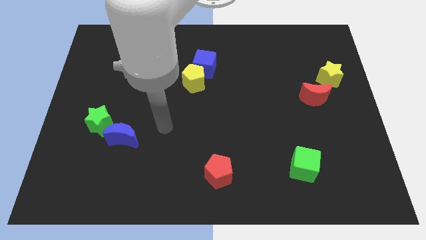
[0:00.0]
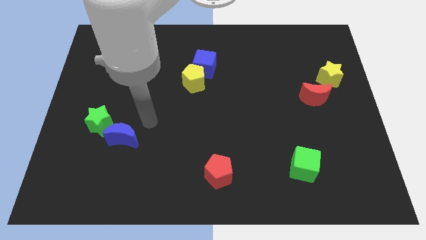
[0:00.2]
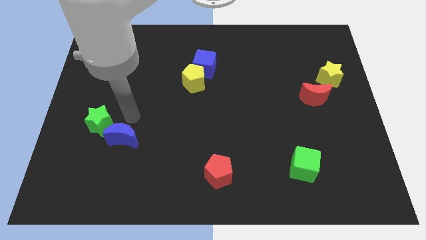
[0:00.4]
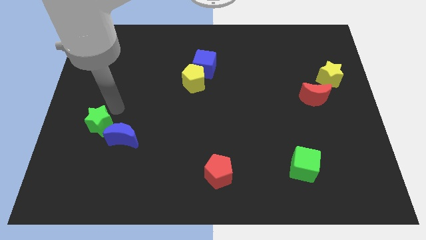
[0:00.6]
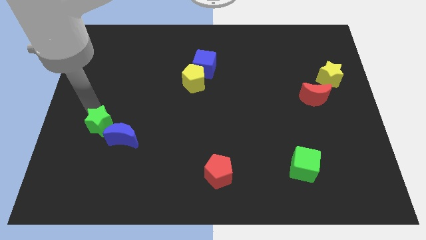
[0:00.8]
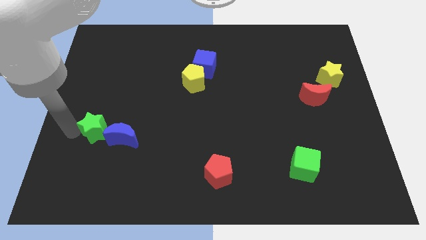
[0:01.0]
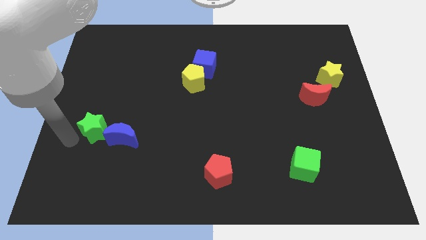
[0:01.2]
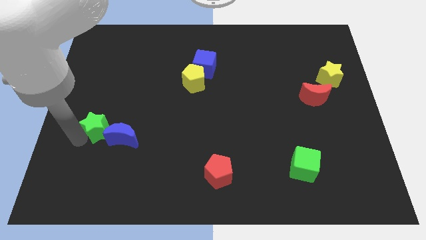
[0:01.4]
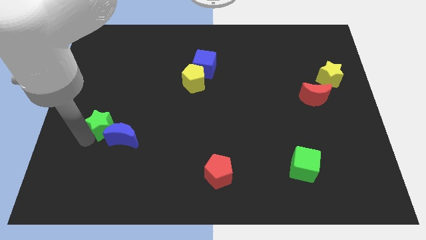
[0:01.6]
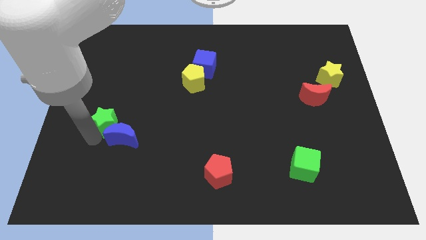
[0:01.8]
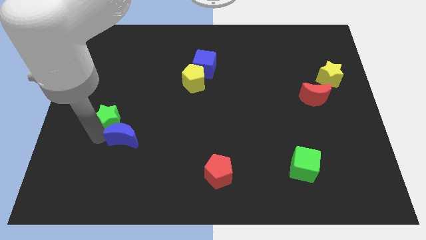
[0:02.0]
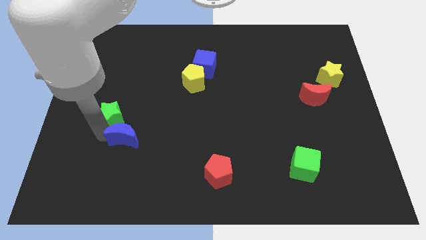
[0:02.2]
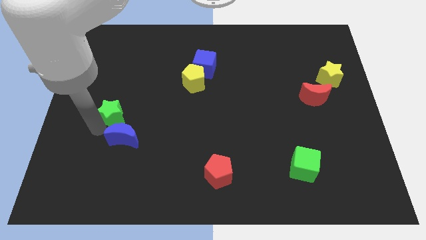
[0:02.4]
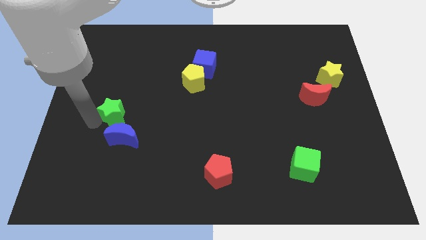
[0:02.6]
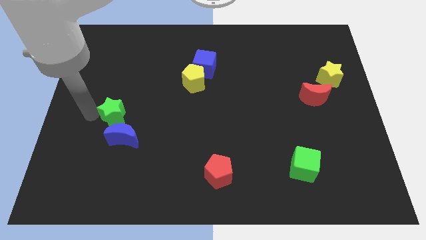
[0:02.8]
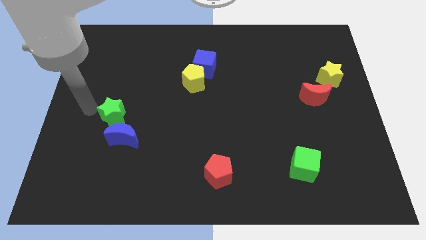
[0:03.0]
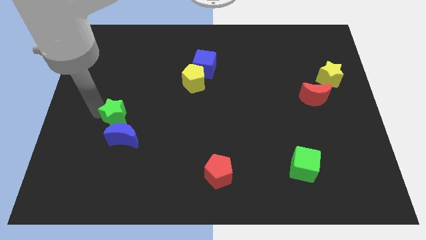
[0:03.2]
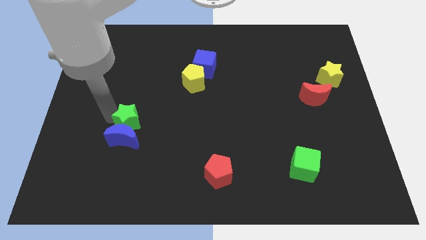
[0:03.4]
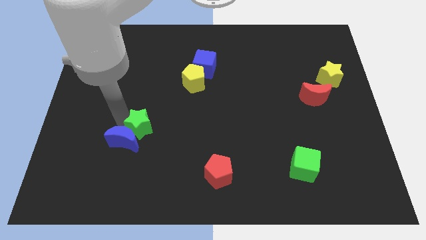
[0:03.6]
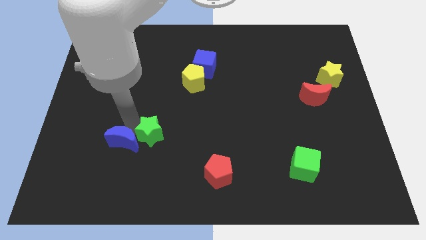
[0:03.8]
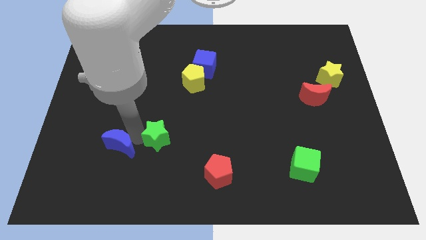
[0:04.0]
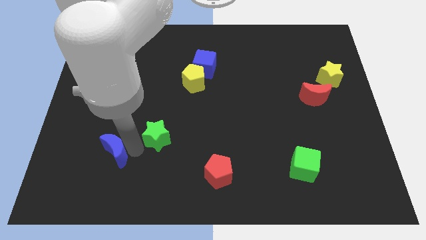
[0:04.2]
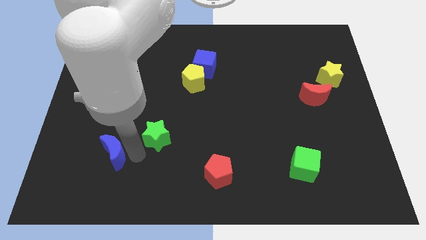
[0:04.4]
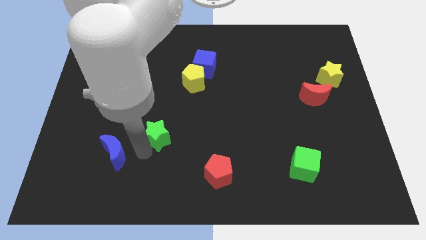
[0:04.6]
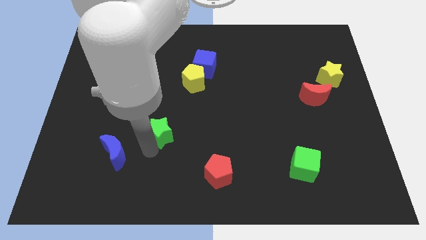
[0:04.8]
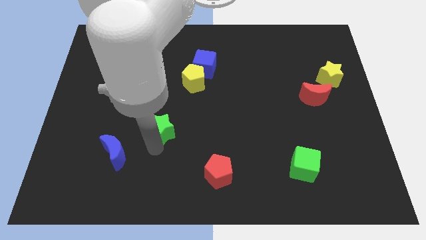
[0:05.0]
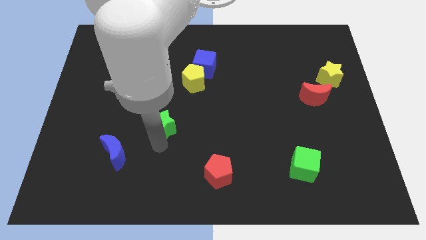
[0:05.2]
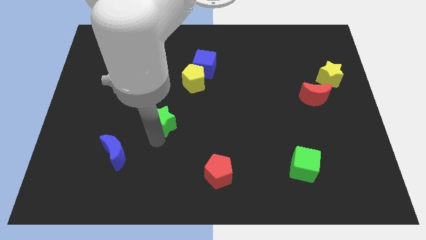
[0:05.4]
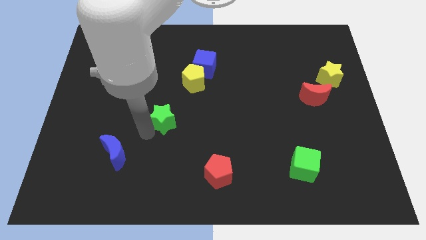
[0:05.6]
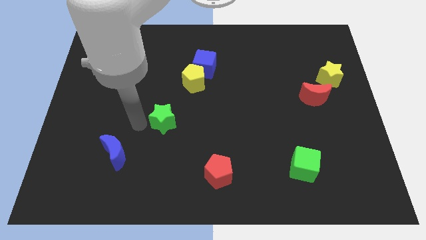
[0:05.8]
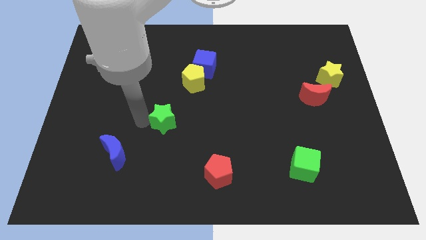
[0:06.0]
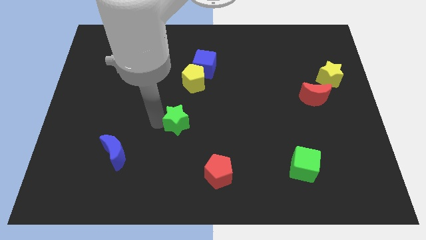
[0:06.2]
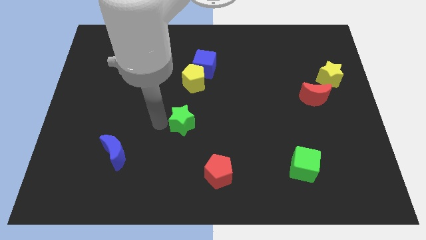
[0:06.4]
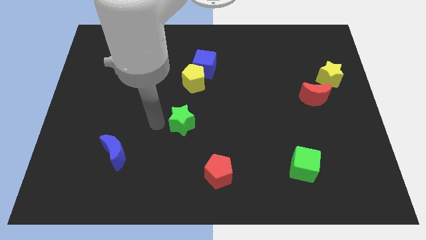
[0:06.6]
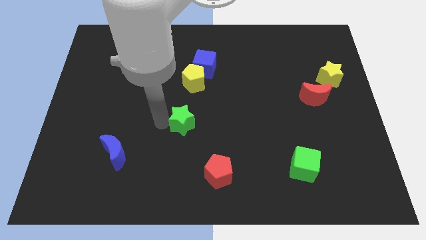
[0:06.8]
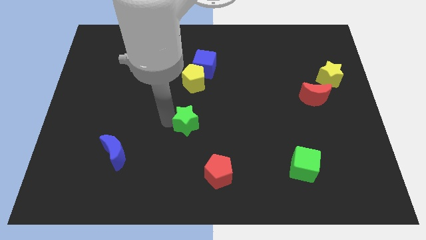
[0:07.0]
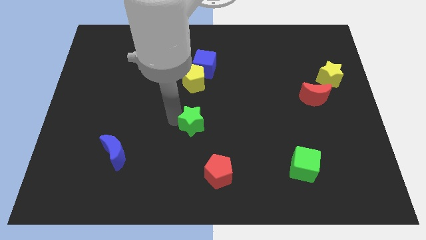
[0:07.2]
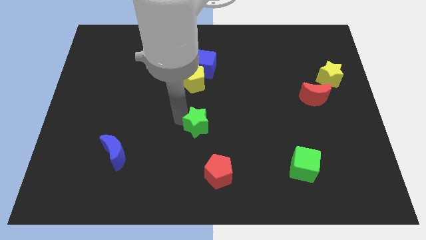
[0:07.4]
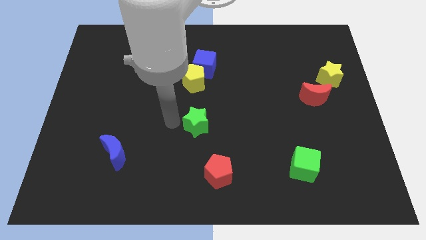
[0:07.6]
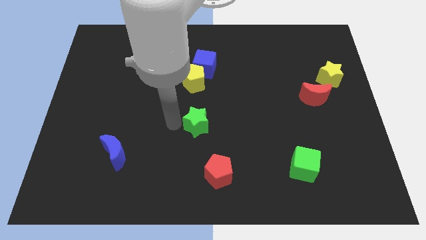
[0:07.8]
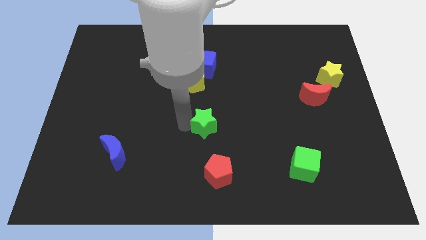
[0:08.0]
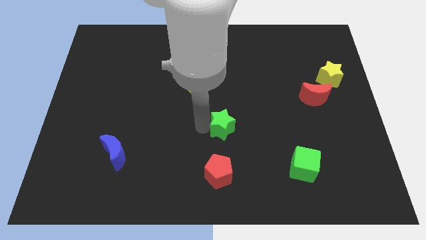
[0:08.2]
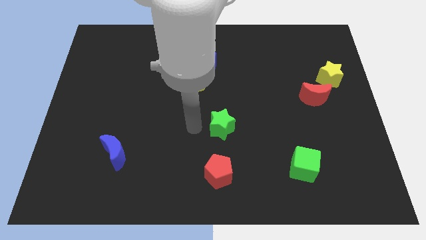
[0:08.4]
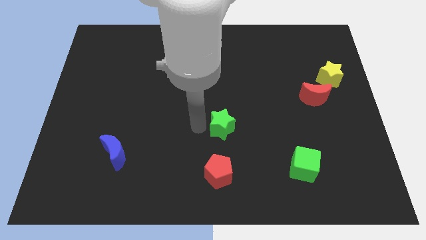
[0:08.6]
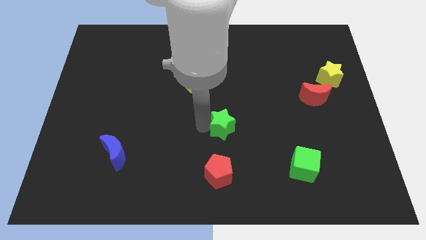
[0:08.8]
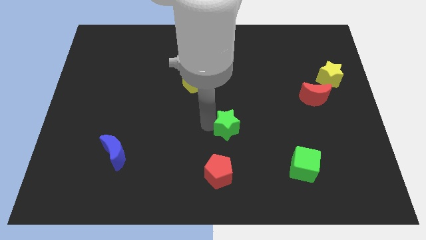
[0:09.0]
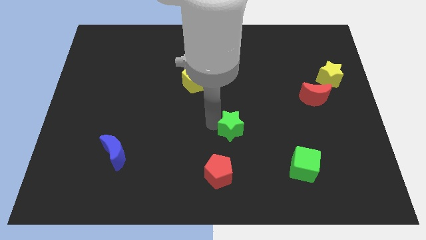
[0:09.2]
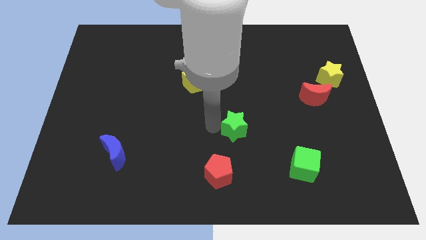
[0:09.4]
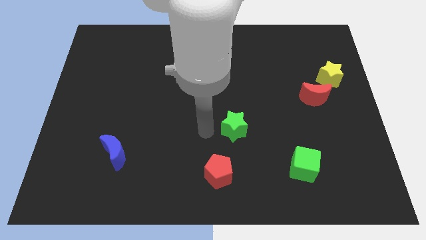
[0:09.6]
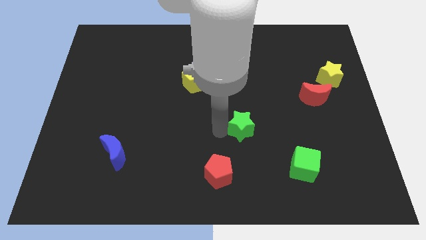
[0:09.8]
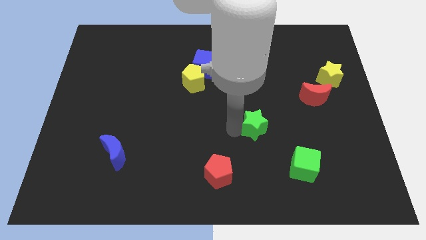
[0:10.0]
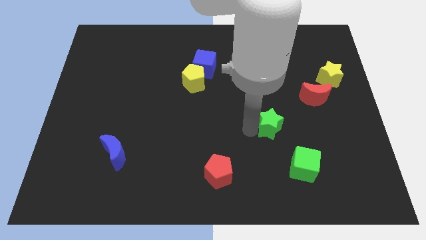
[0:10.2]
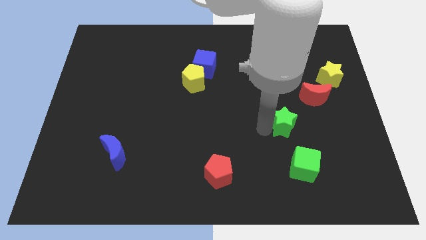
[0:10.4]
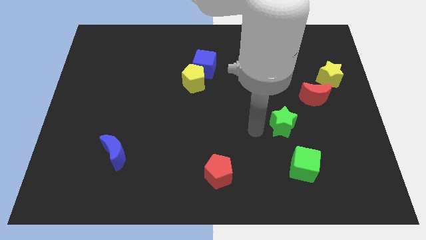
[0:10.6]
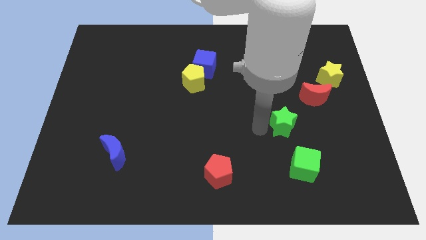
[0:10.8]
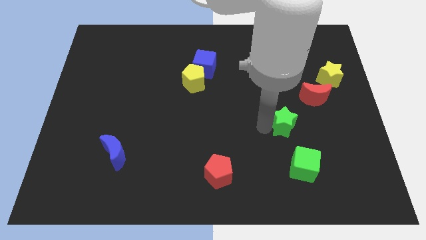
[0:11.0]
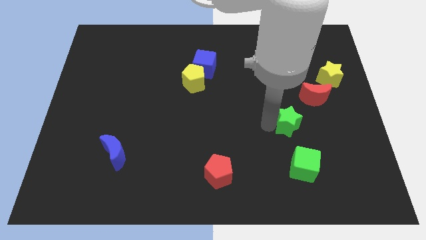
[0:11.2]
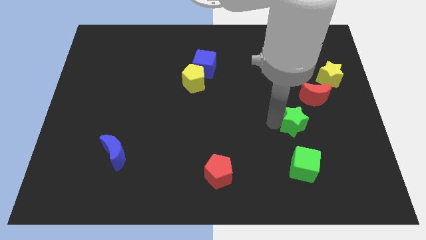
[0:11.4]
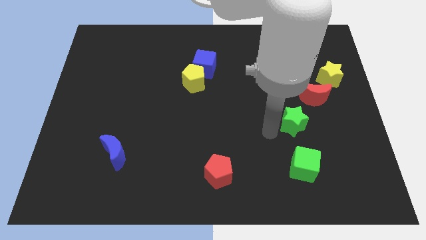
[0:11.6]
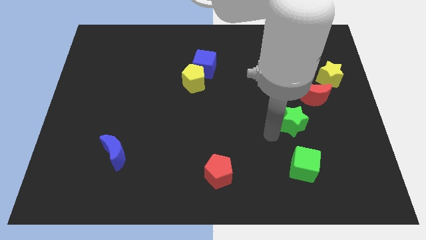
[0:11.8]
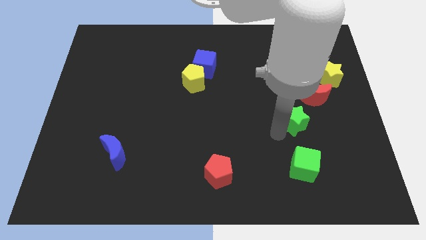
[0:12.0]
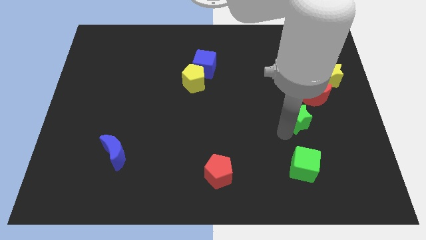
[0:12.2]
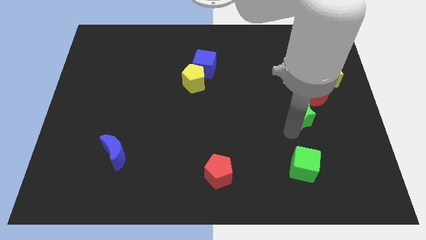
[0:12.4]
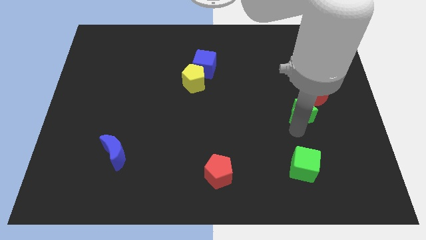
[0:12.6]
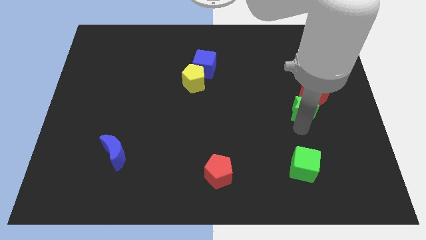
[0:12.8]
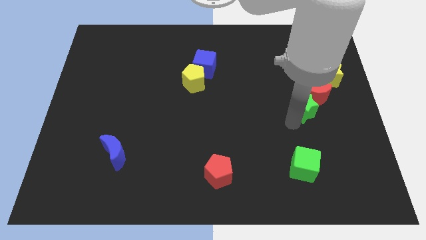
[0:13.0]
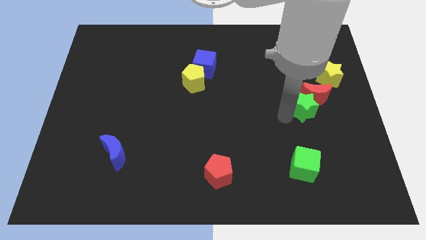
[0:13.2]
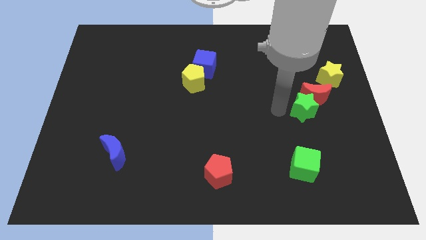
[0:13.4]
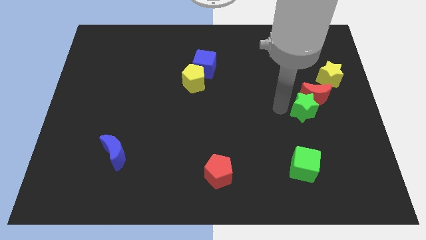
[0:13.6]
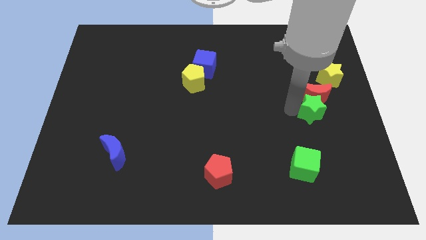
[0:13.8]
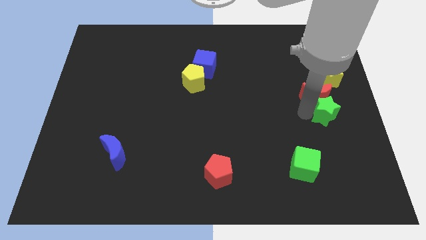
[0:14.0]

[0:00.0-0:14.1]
slide the green star to the right side
